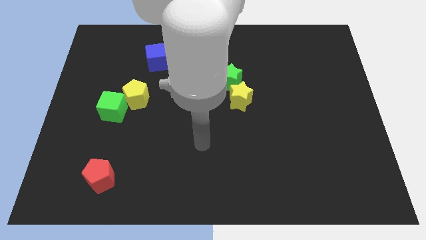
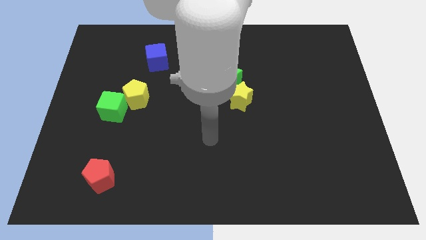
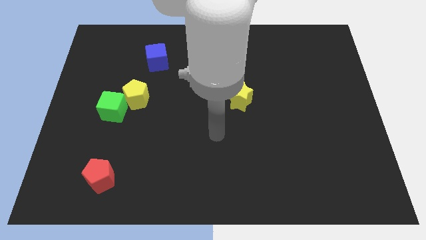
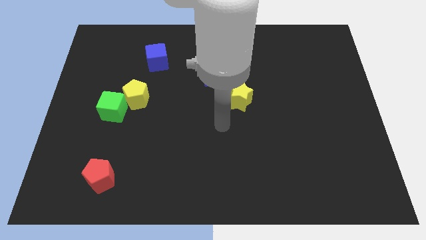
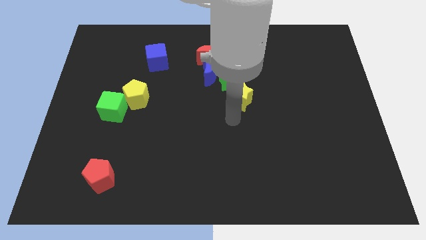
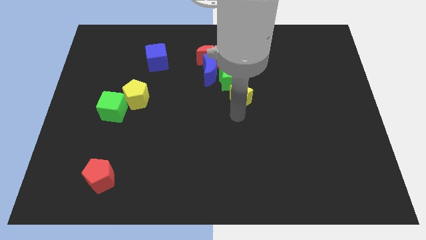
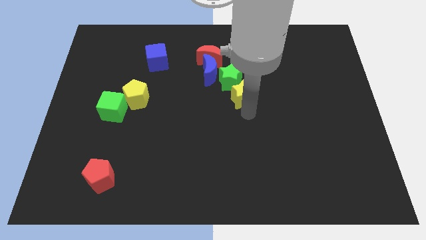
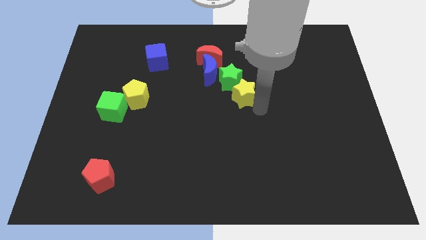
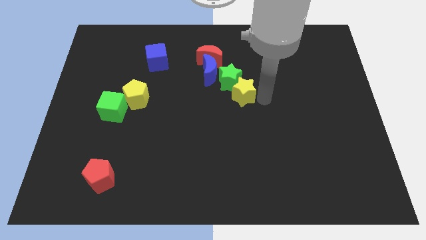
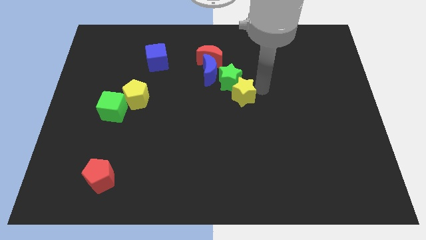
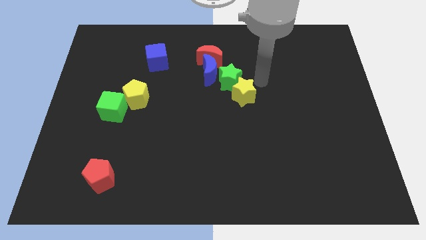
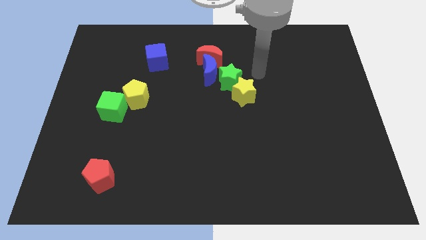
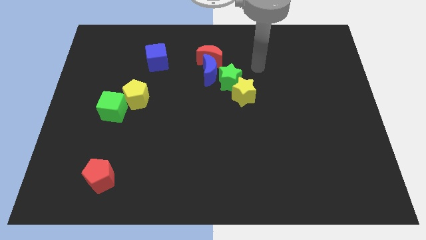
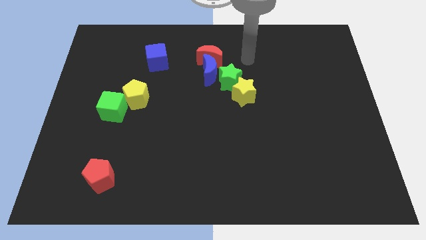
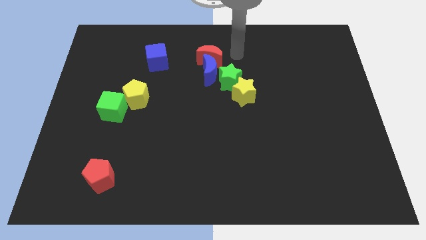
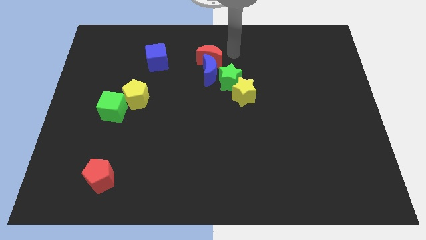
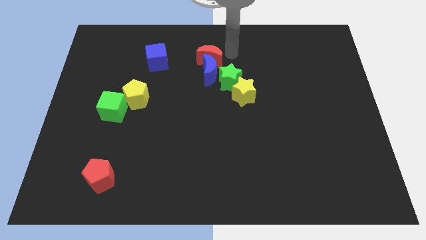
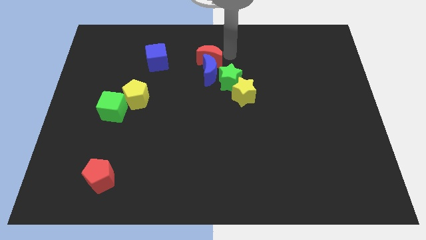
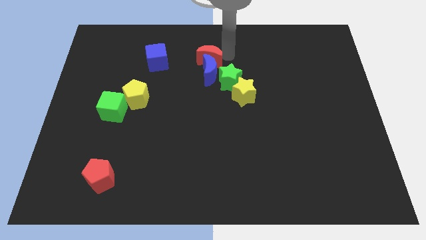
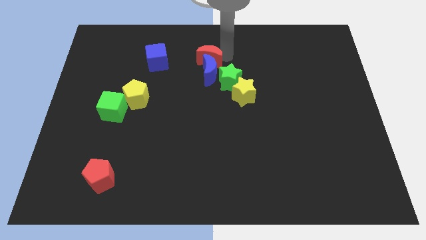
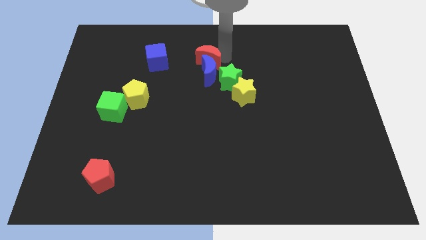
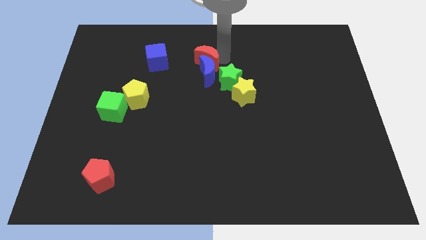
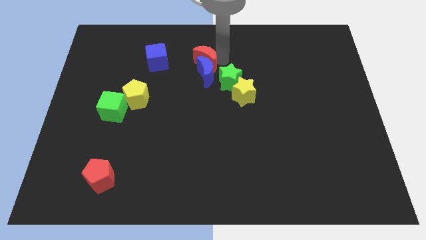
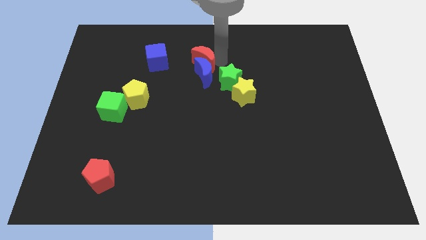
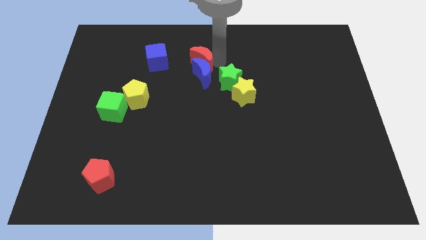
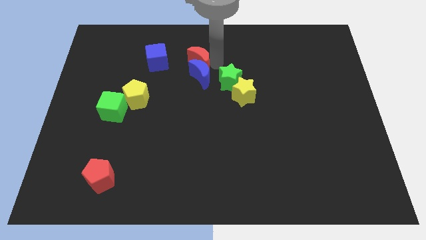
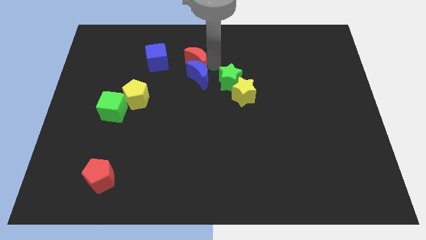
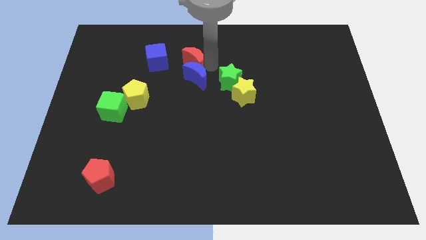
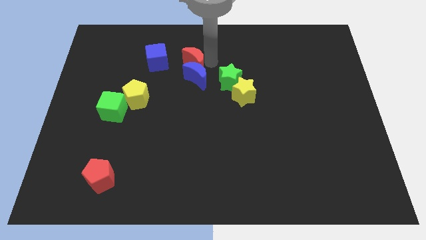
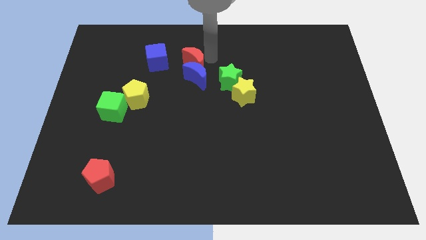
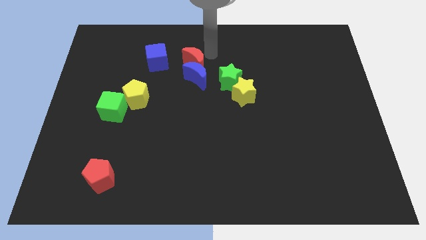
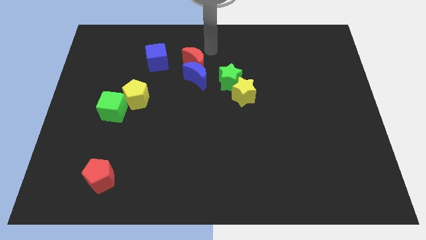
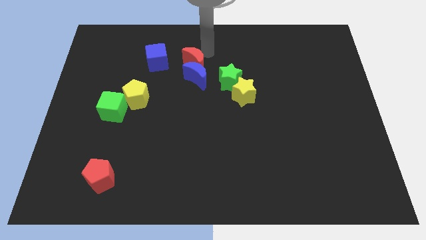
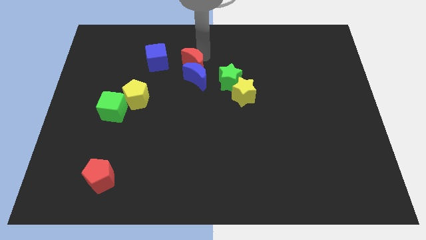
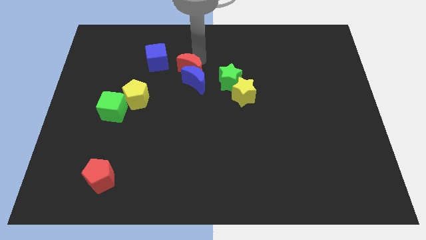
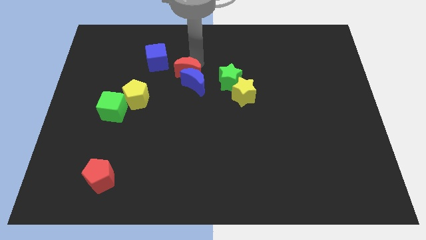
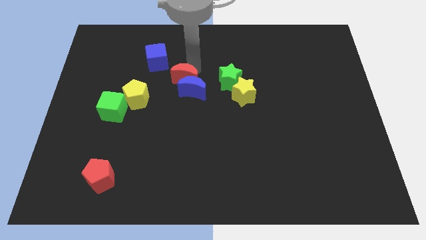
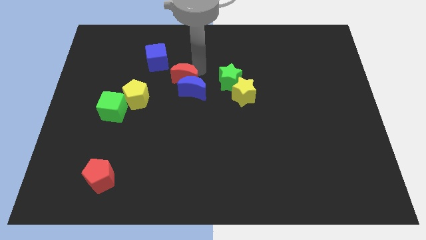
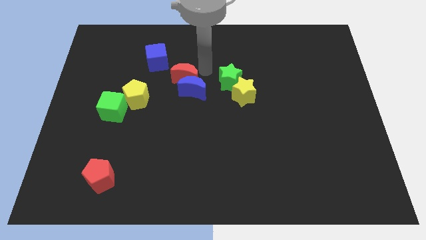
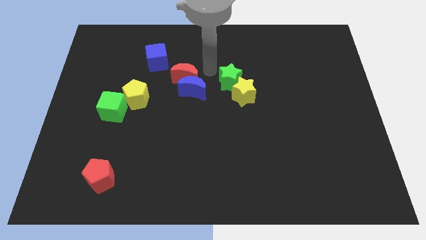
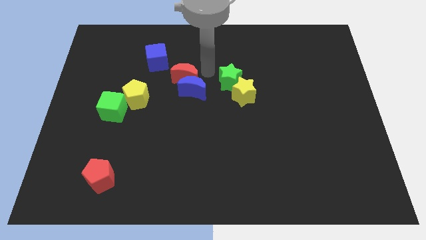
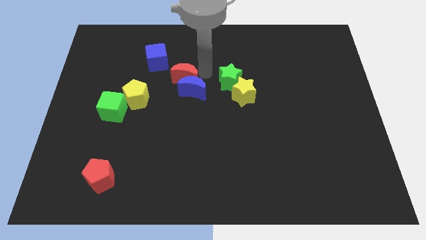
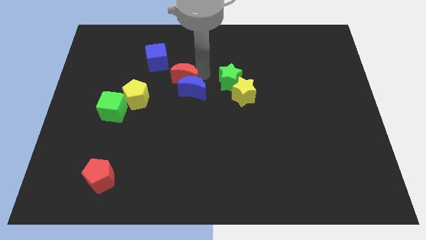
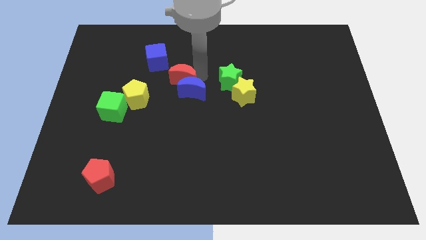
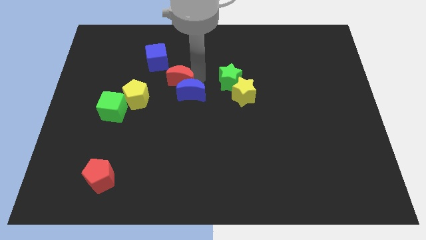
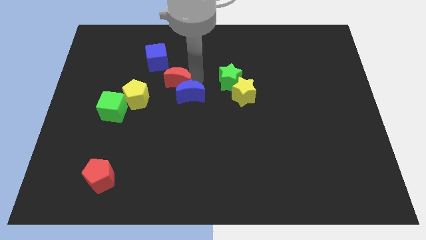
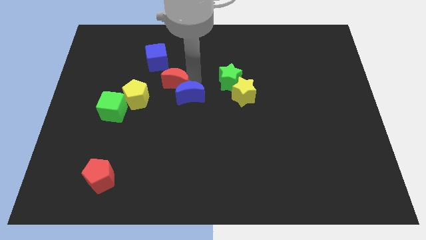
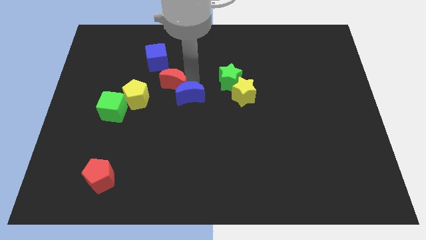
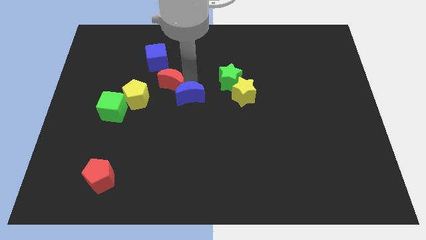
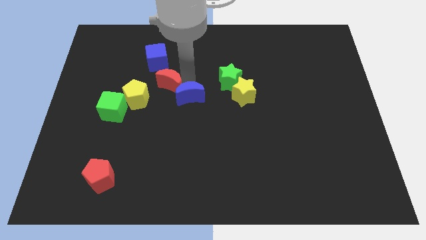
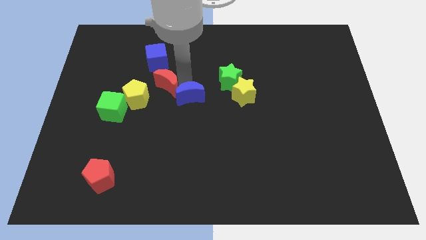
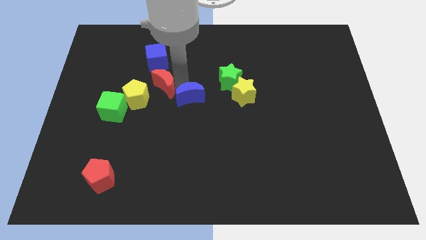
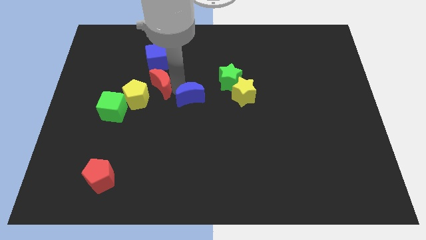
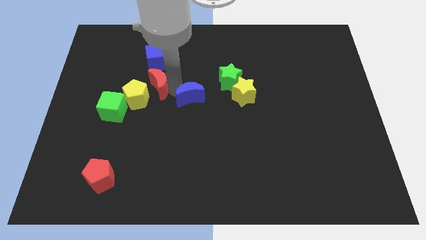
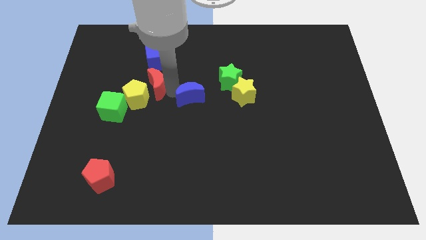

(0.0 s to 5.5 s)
push the red moon next to the yellow pentagon
